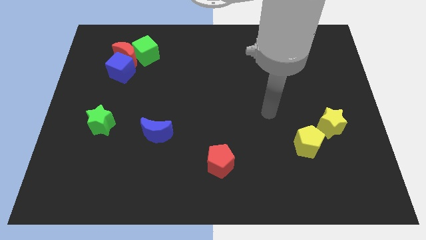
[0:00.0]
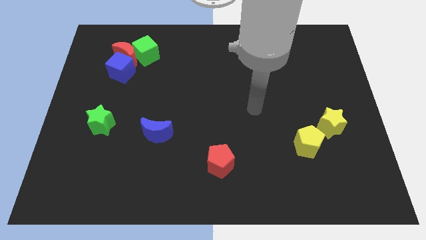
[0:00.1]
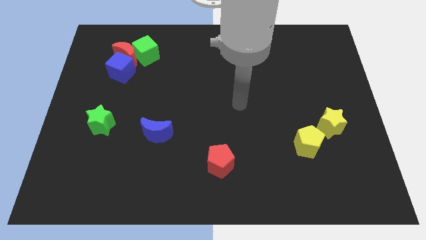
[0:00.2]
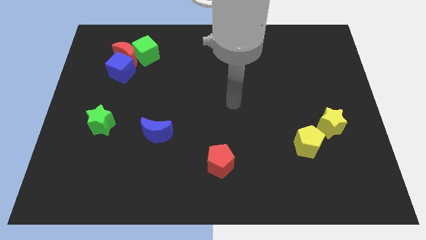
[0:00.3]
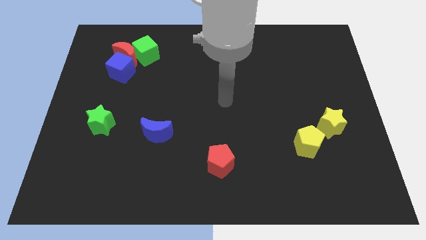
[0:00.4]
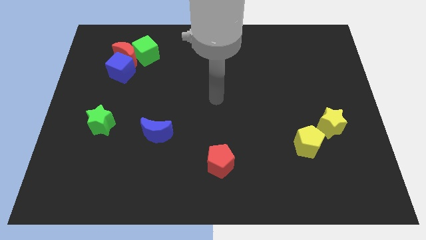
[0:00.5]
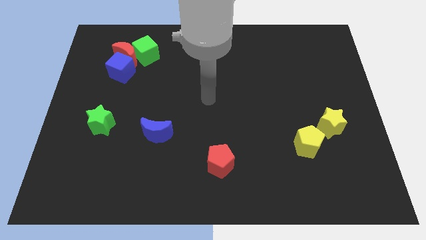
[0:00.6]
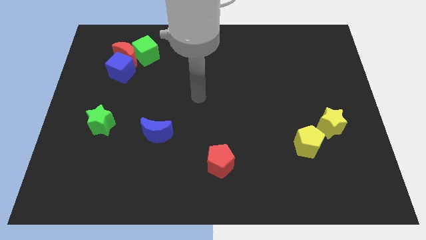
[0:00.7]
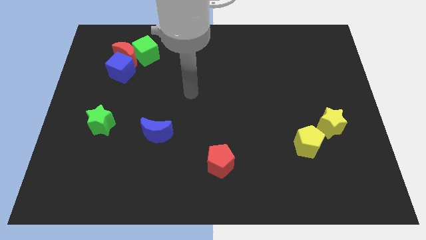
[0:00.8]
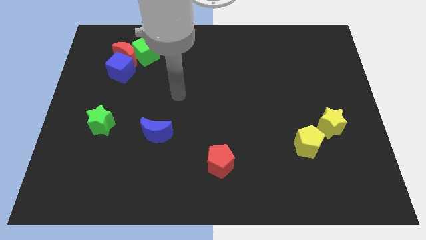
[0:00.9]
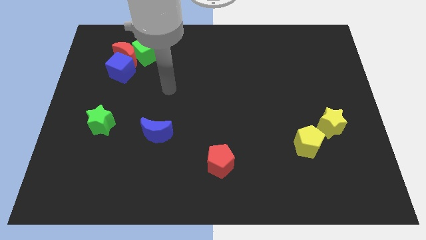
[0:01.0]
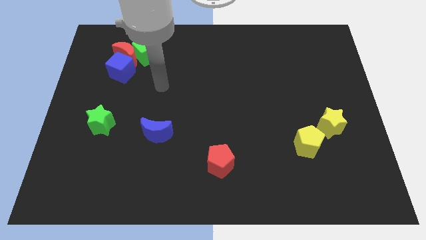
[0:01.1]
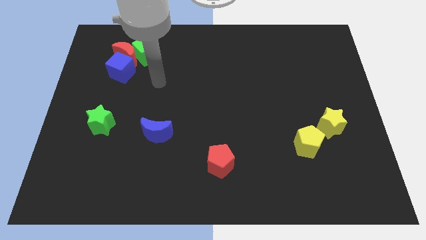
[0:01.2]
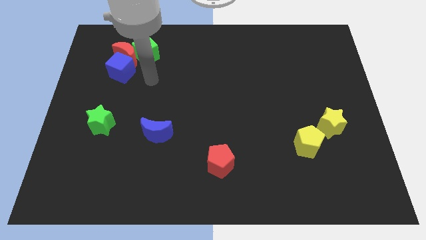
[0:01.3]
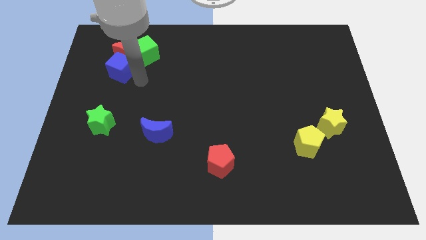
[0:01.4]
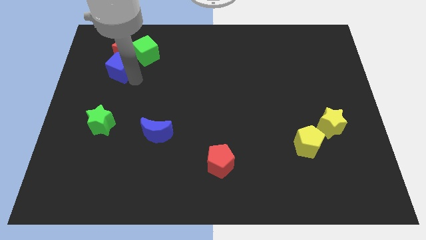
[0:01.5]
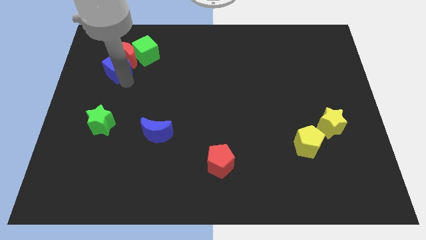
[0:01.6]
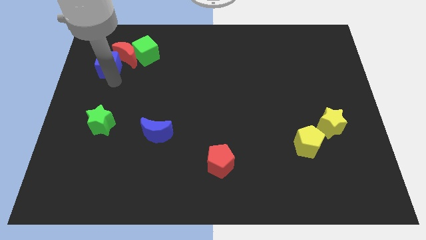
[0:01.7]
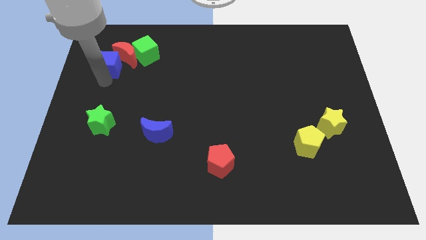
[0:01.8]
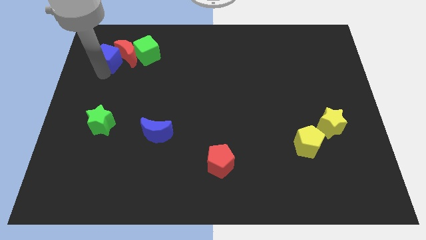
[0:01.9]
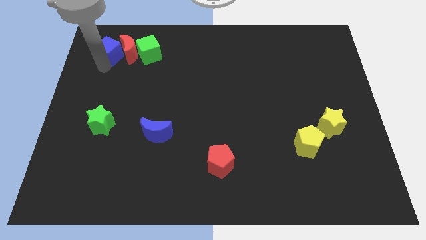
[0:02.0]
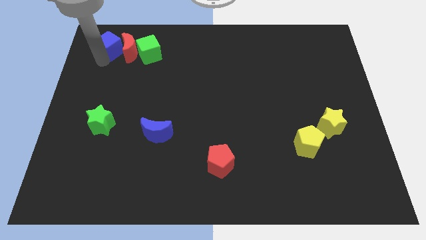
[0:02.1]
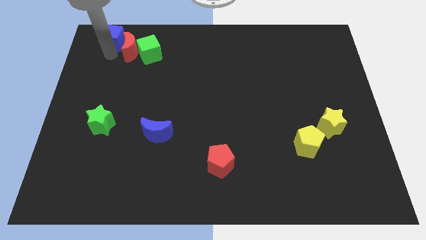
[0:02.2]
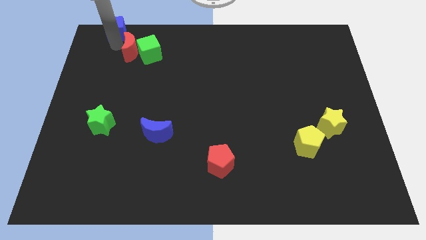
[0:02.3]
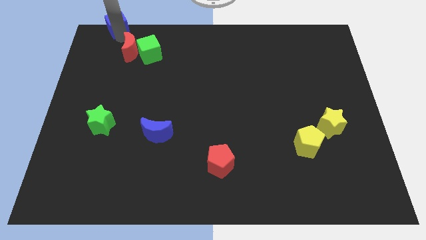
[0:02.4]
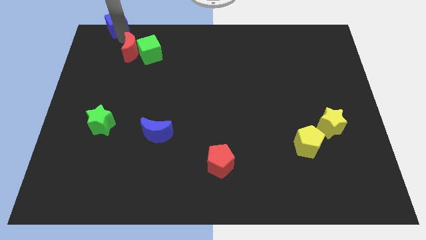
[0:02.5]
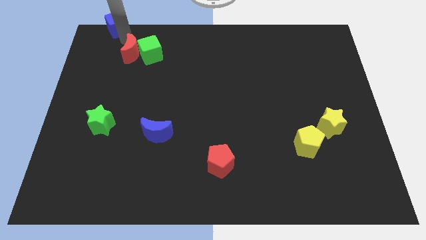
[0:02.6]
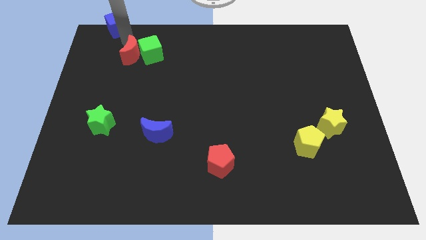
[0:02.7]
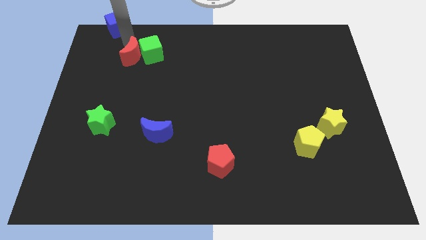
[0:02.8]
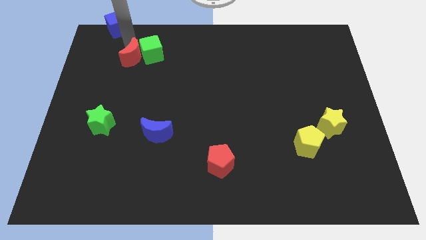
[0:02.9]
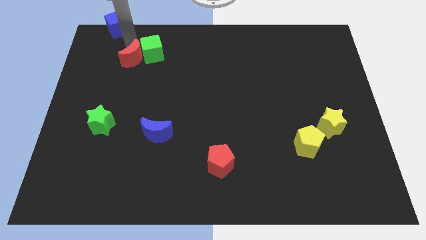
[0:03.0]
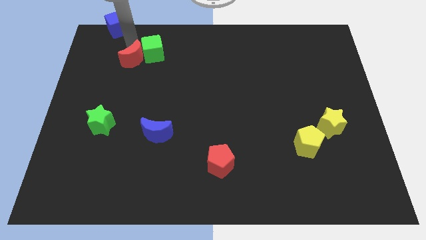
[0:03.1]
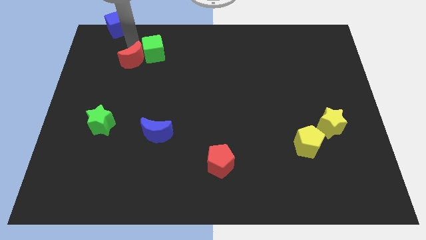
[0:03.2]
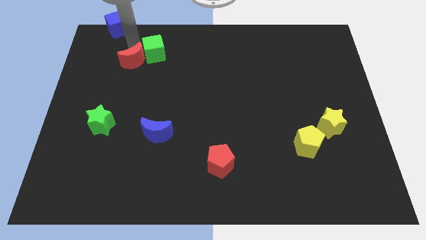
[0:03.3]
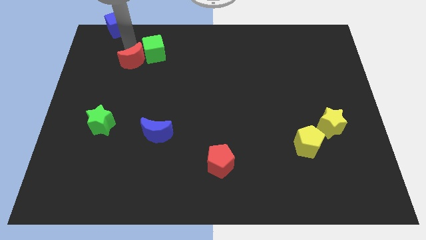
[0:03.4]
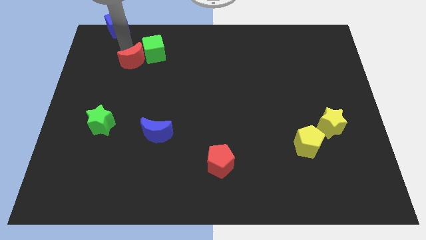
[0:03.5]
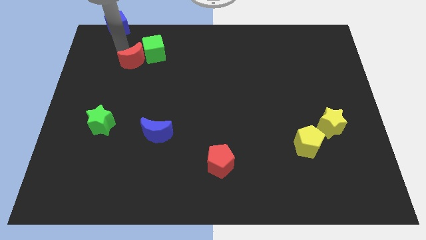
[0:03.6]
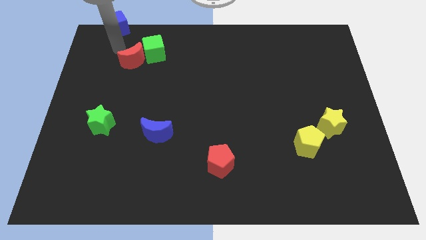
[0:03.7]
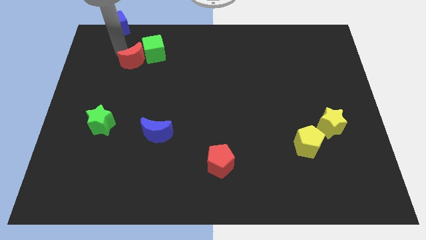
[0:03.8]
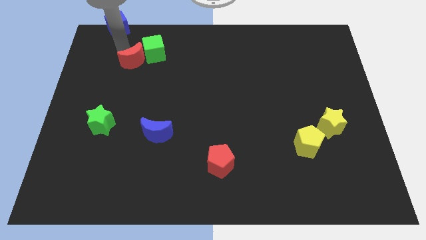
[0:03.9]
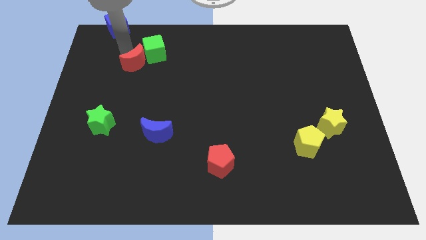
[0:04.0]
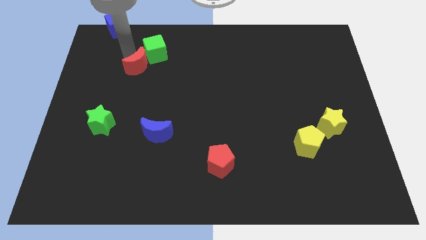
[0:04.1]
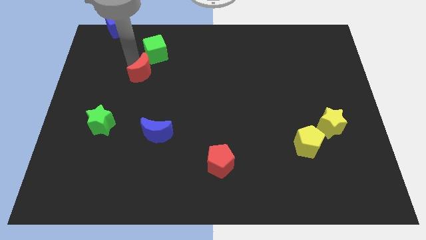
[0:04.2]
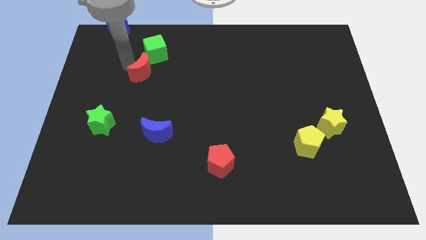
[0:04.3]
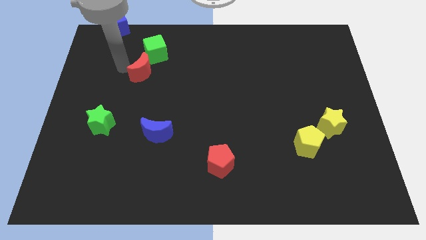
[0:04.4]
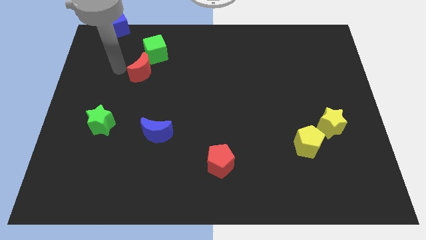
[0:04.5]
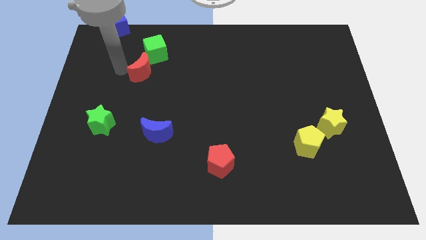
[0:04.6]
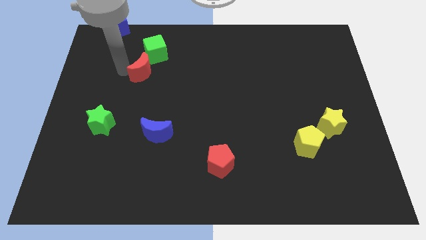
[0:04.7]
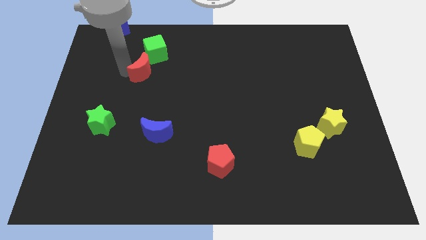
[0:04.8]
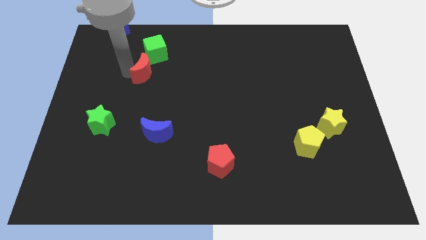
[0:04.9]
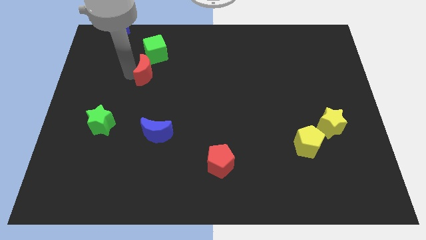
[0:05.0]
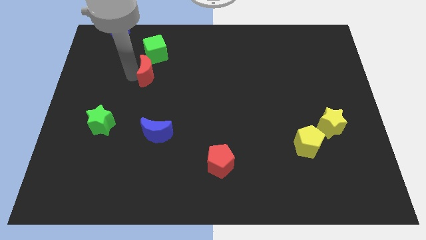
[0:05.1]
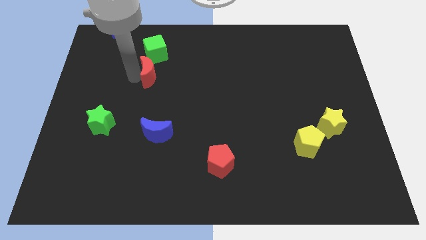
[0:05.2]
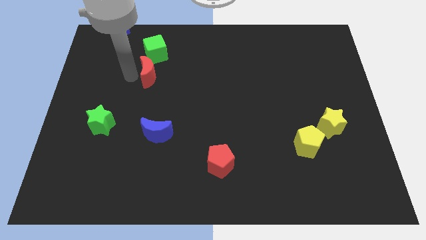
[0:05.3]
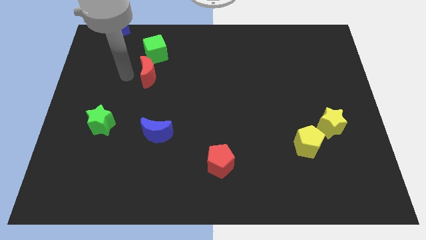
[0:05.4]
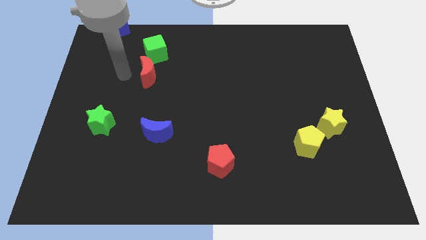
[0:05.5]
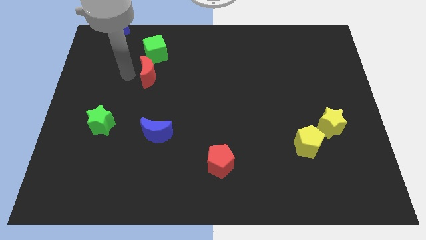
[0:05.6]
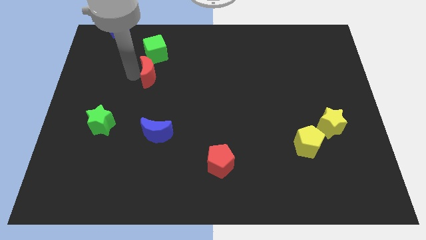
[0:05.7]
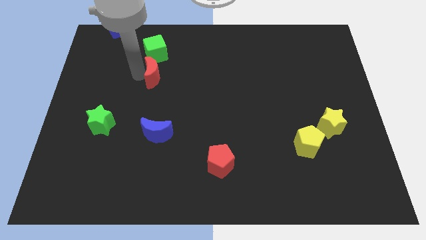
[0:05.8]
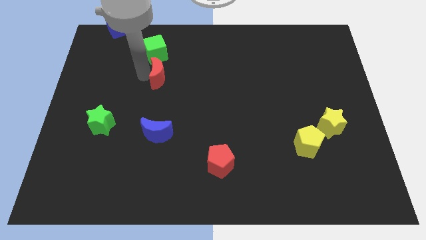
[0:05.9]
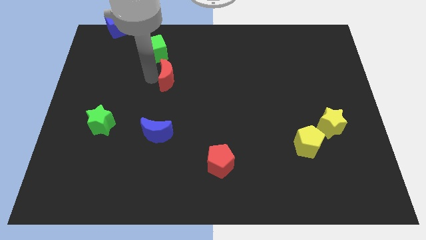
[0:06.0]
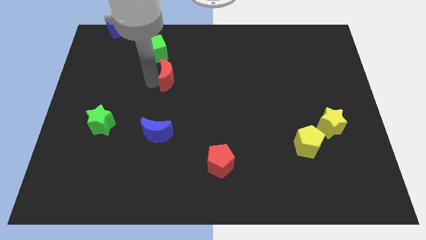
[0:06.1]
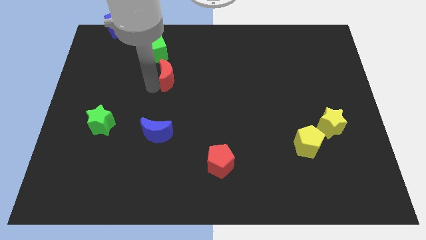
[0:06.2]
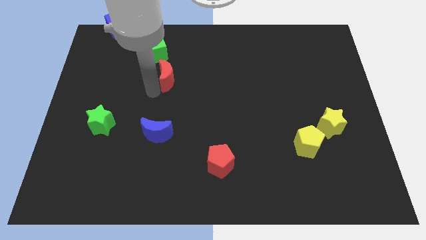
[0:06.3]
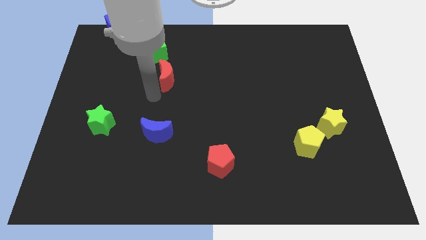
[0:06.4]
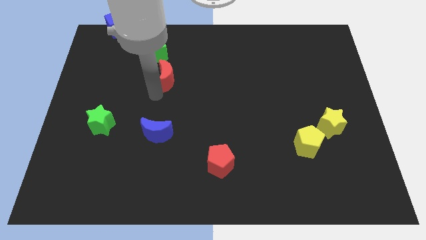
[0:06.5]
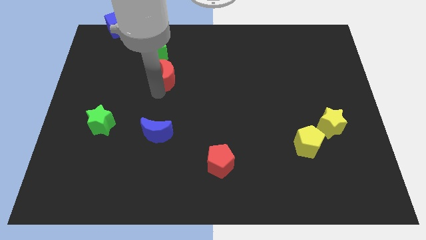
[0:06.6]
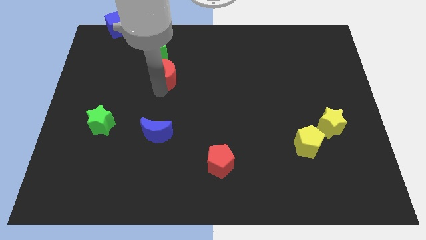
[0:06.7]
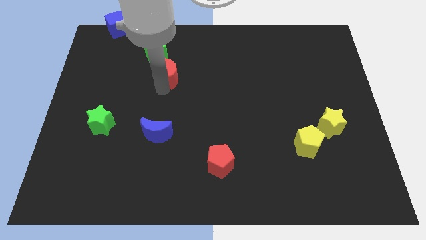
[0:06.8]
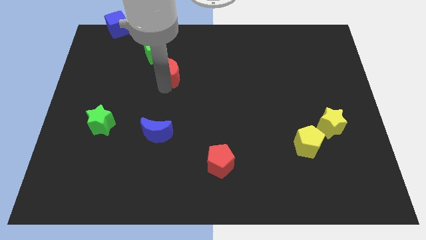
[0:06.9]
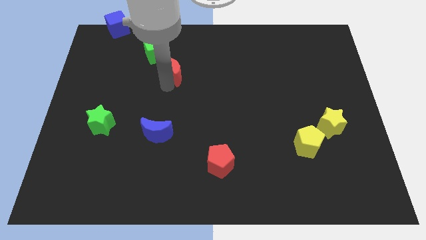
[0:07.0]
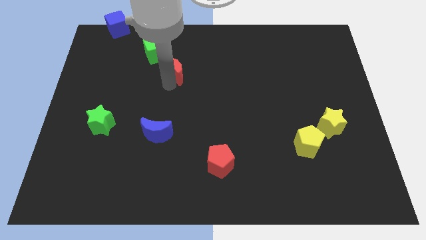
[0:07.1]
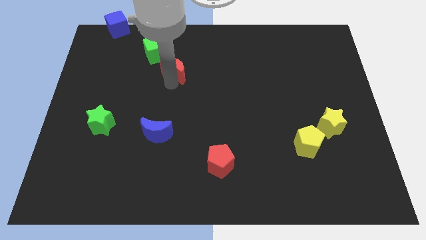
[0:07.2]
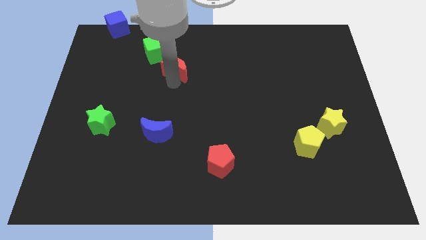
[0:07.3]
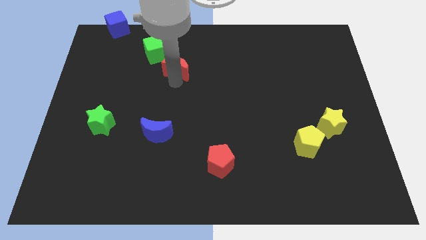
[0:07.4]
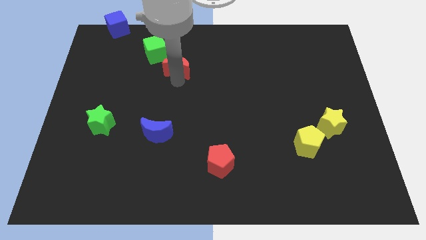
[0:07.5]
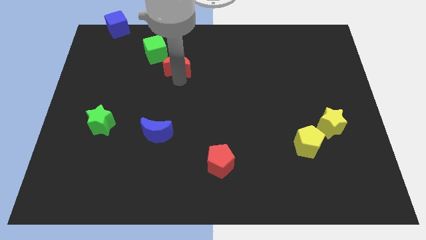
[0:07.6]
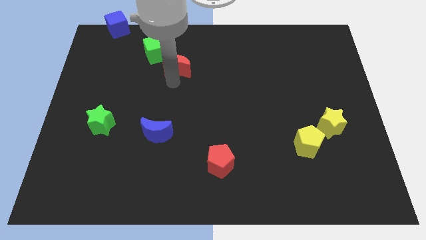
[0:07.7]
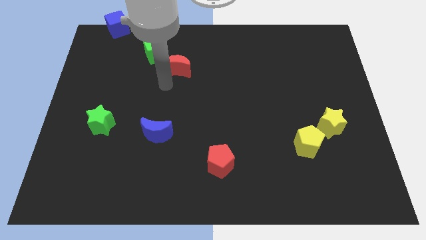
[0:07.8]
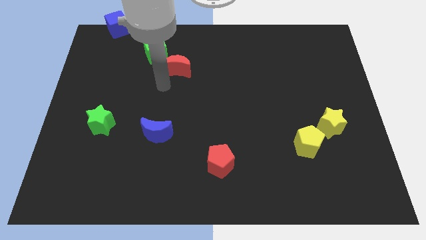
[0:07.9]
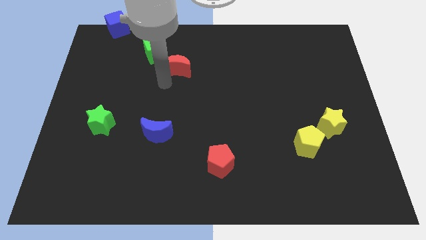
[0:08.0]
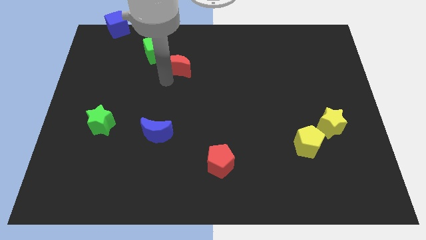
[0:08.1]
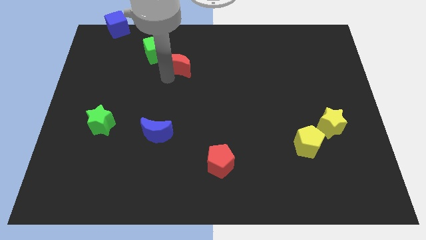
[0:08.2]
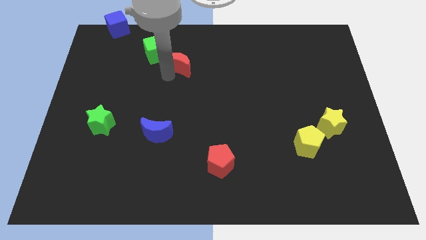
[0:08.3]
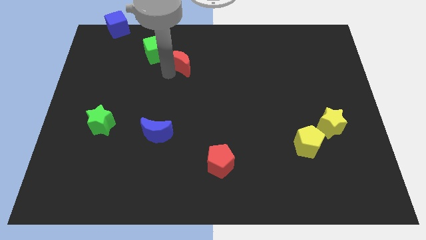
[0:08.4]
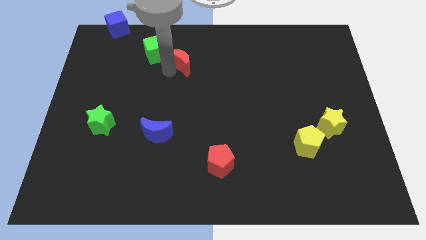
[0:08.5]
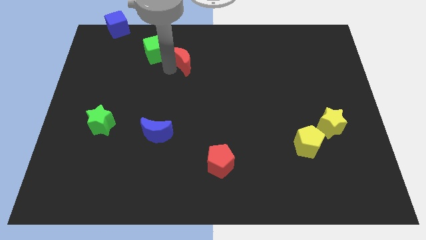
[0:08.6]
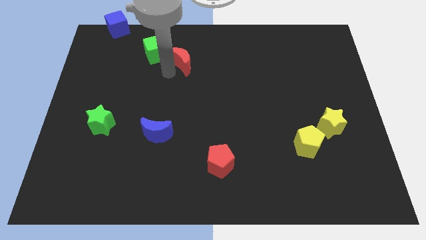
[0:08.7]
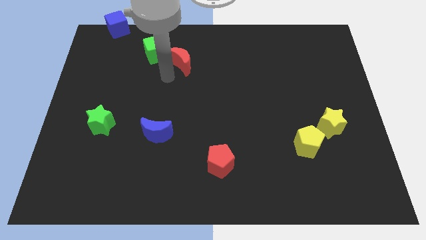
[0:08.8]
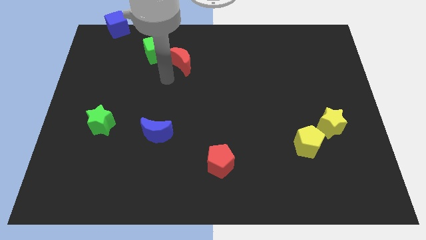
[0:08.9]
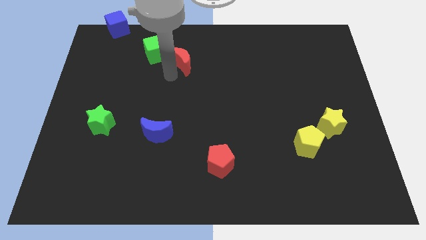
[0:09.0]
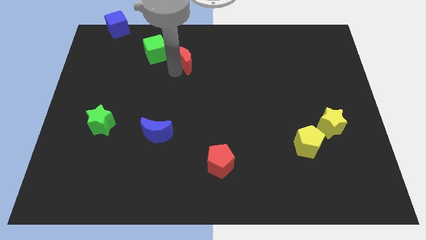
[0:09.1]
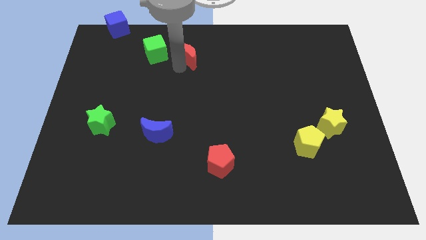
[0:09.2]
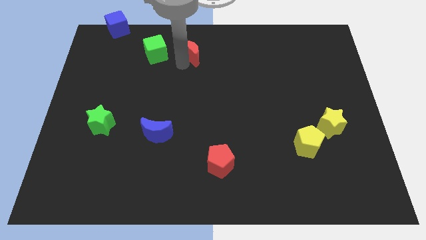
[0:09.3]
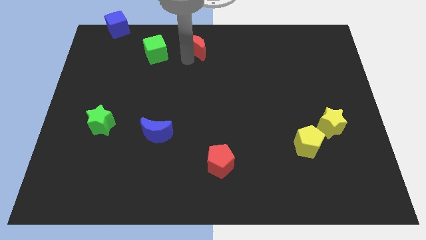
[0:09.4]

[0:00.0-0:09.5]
put the red moon to the towards your base
